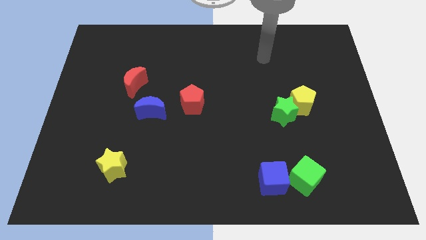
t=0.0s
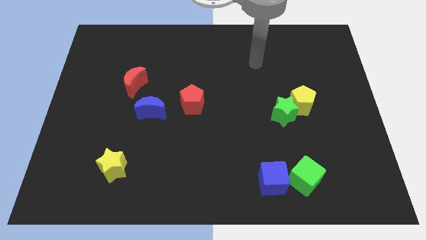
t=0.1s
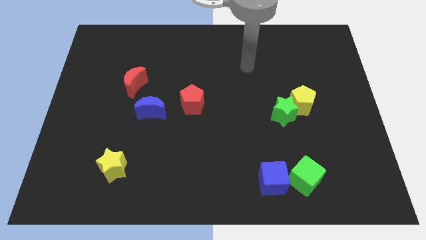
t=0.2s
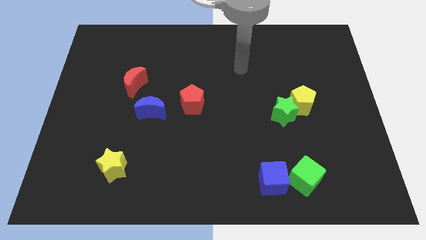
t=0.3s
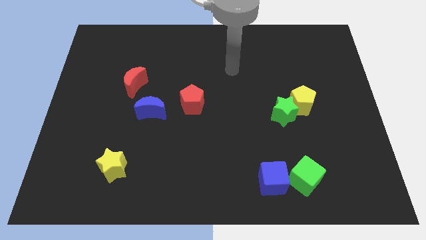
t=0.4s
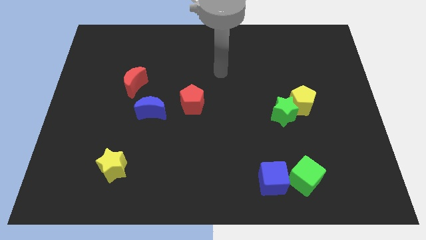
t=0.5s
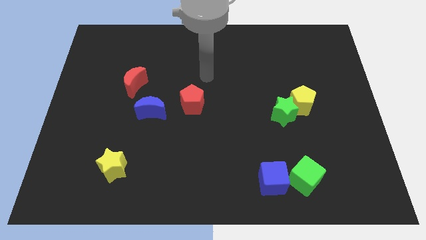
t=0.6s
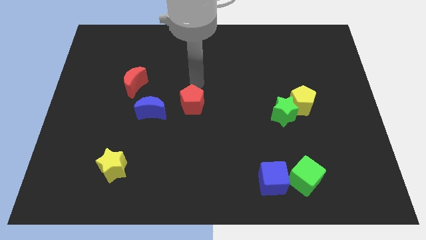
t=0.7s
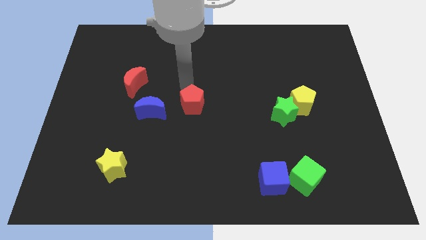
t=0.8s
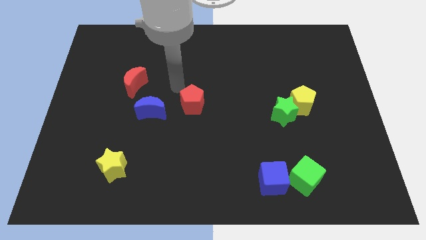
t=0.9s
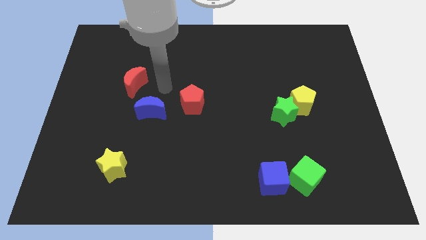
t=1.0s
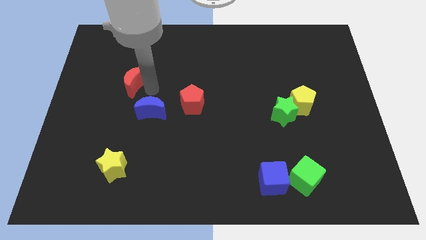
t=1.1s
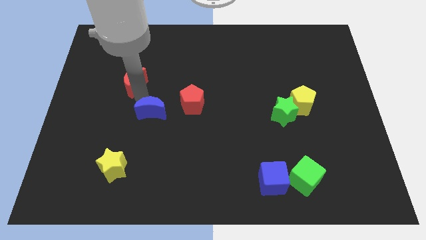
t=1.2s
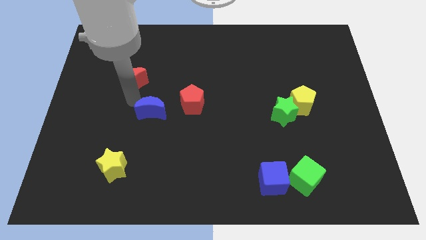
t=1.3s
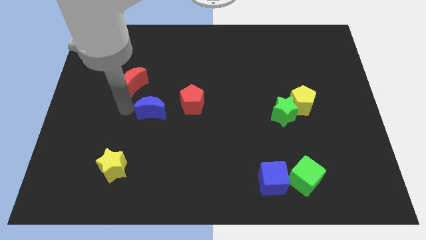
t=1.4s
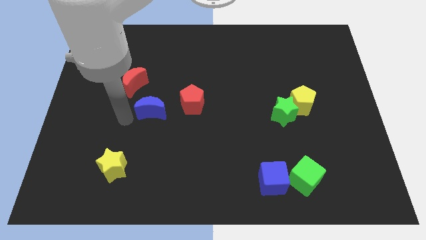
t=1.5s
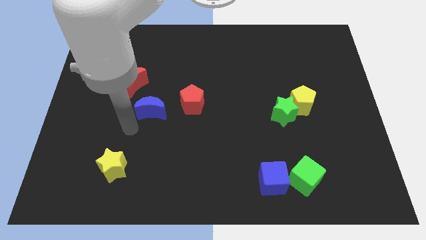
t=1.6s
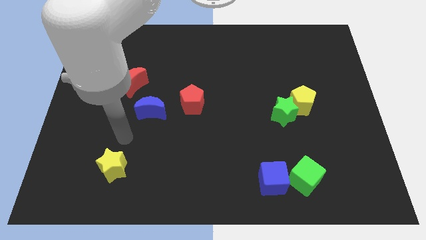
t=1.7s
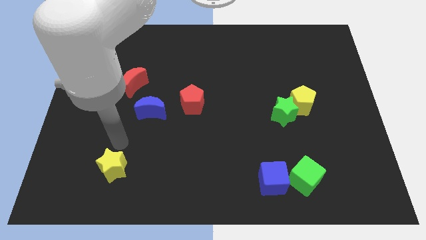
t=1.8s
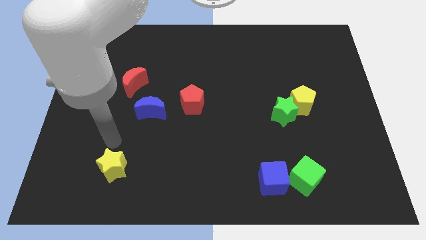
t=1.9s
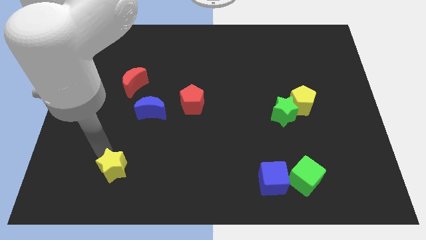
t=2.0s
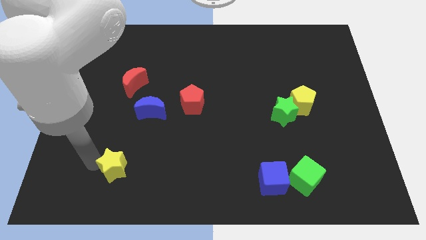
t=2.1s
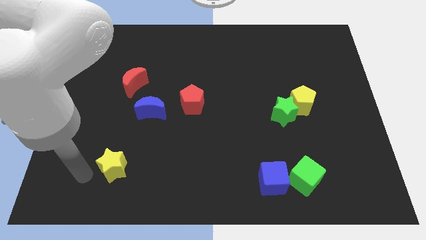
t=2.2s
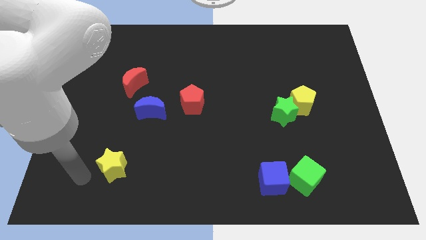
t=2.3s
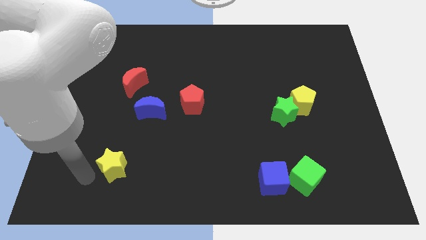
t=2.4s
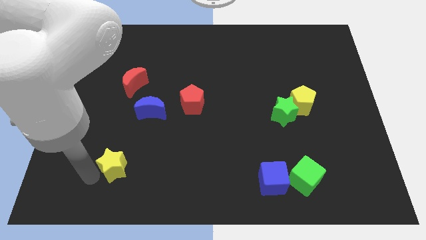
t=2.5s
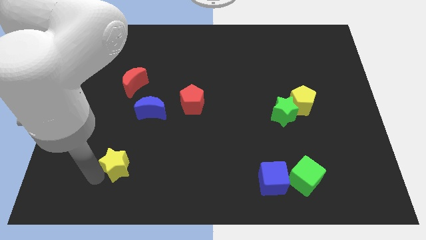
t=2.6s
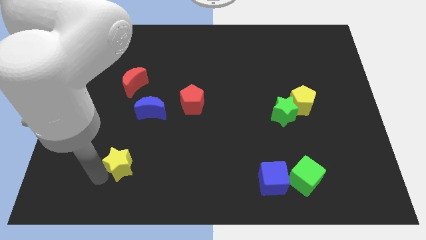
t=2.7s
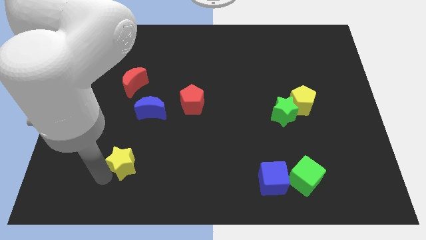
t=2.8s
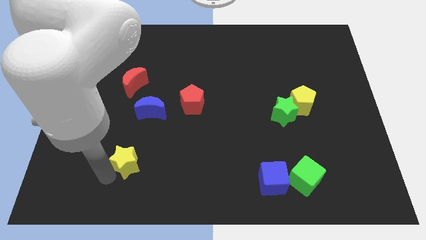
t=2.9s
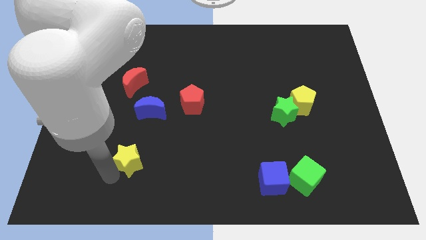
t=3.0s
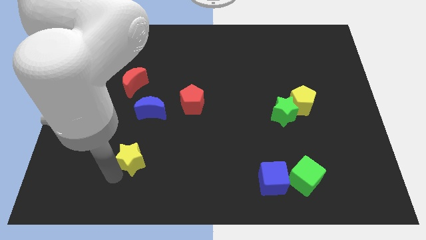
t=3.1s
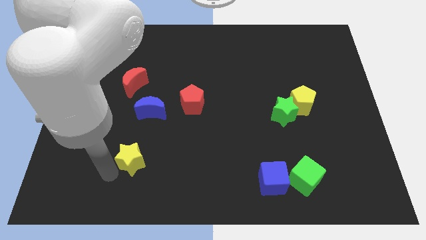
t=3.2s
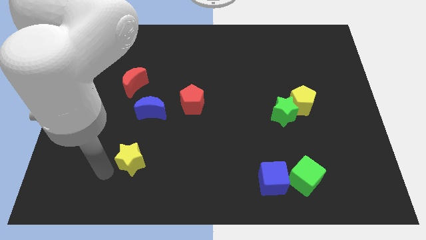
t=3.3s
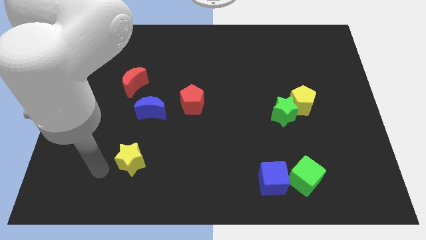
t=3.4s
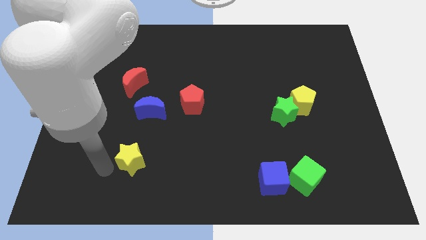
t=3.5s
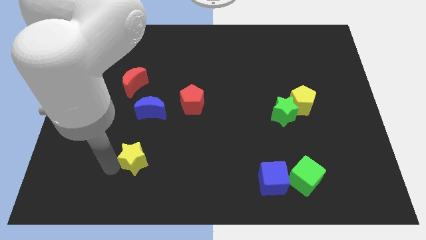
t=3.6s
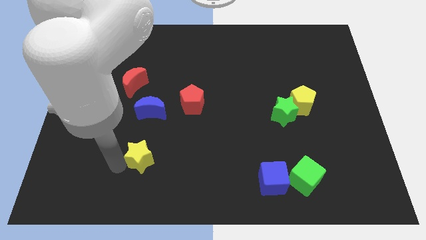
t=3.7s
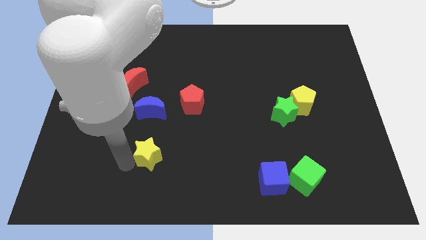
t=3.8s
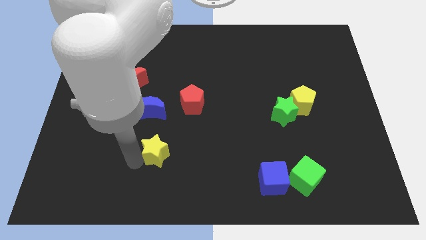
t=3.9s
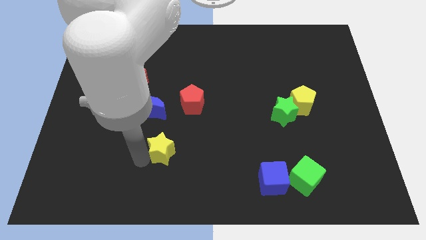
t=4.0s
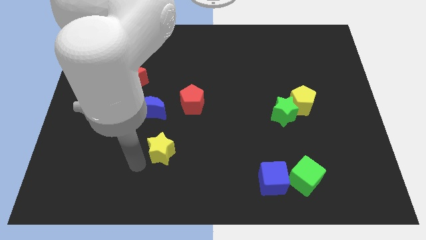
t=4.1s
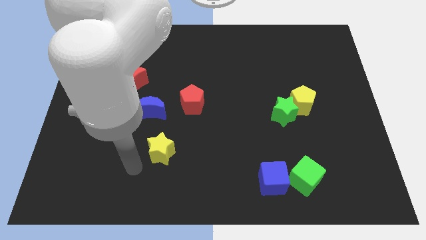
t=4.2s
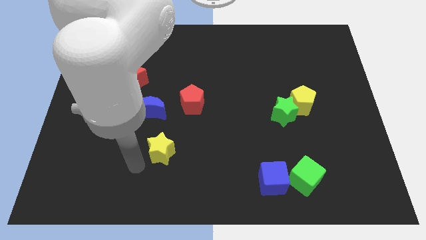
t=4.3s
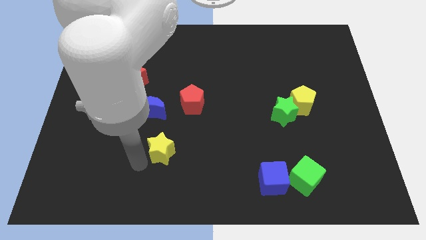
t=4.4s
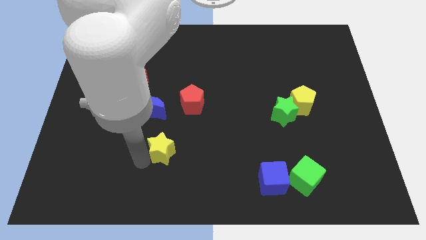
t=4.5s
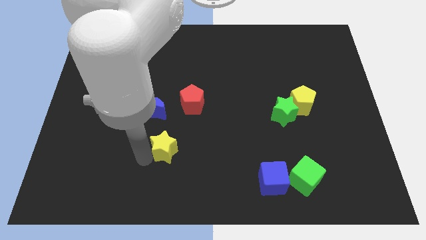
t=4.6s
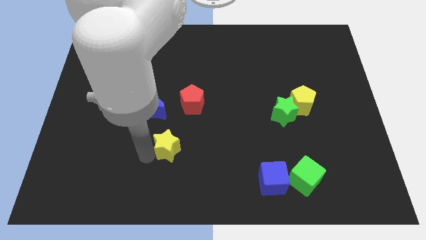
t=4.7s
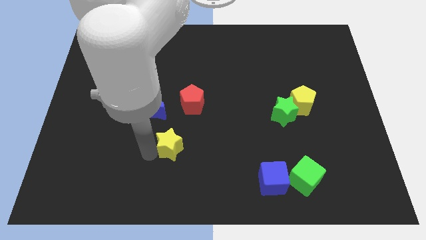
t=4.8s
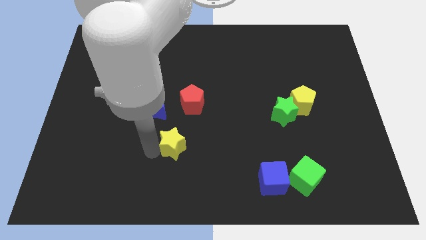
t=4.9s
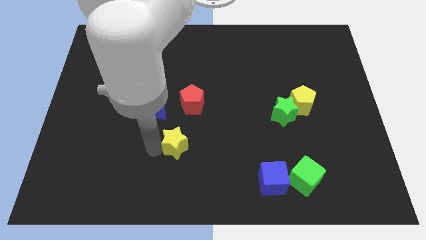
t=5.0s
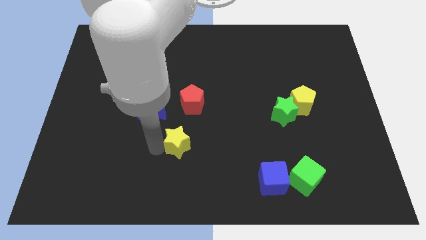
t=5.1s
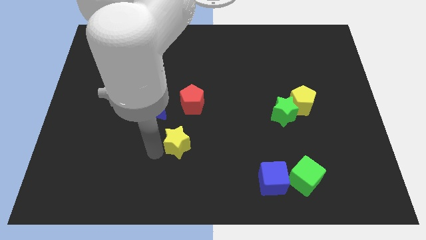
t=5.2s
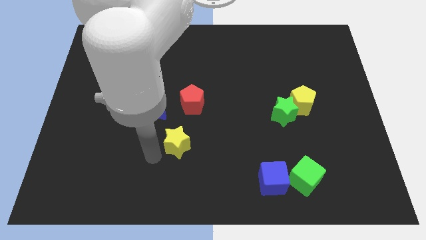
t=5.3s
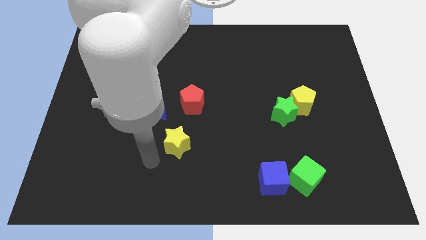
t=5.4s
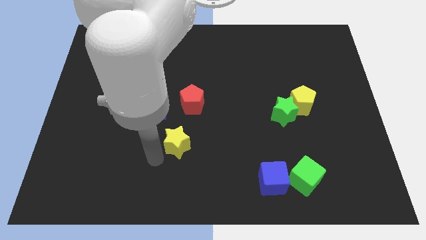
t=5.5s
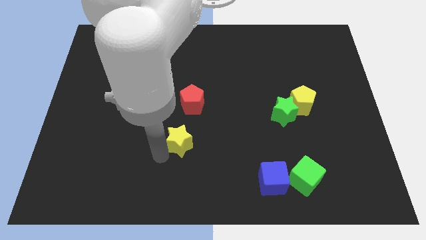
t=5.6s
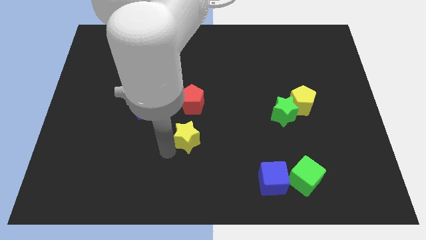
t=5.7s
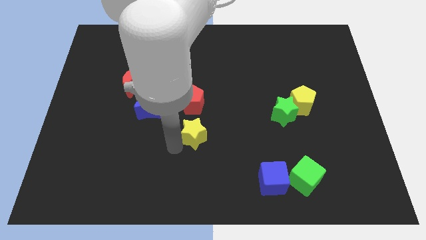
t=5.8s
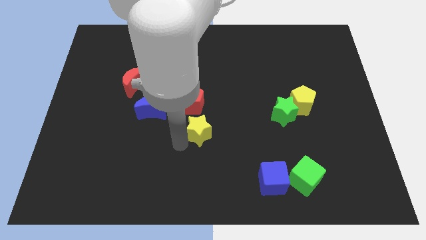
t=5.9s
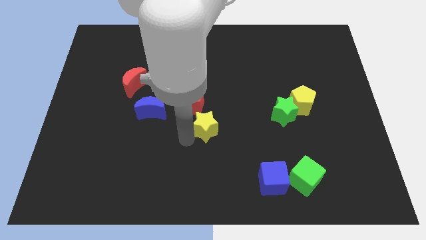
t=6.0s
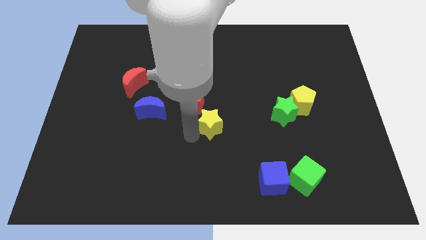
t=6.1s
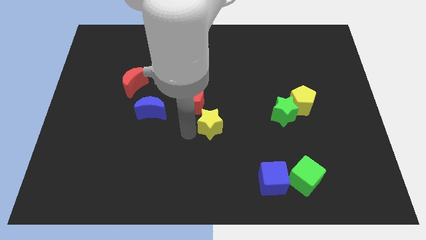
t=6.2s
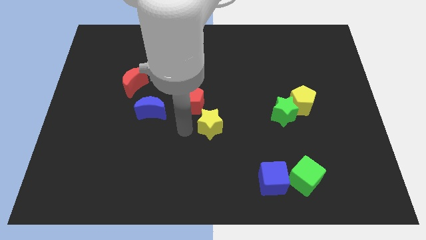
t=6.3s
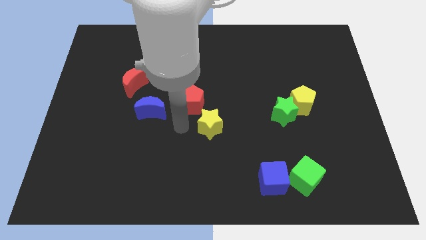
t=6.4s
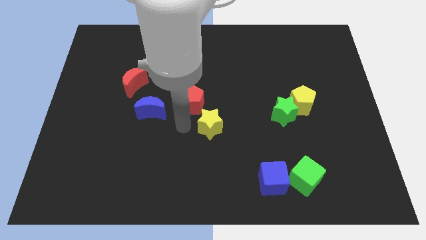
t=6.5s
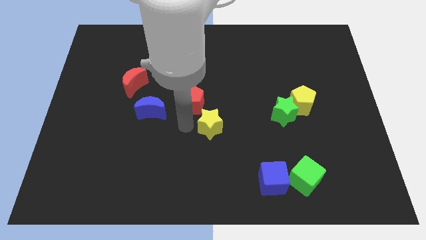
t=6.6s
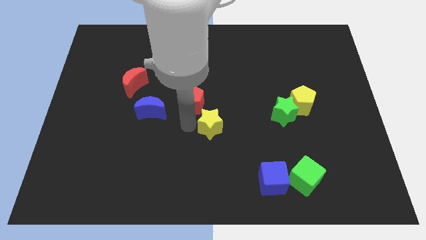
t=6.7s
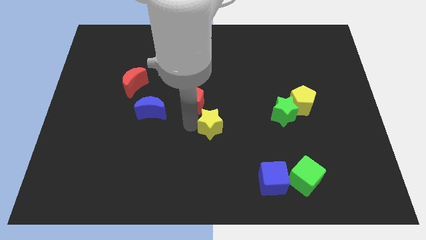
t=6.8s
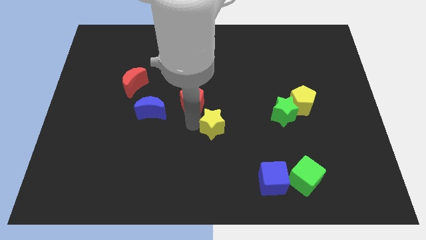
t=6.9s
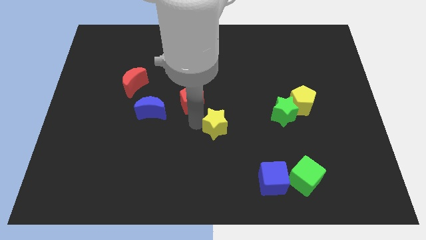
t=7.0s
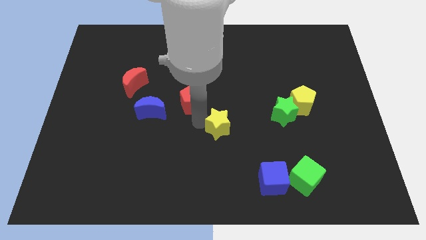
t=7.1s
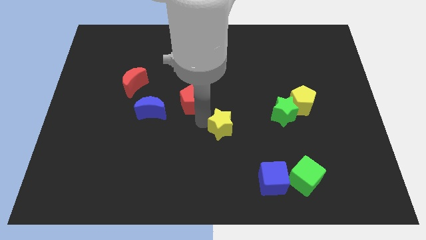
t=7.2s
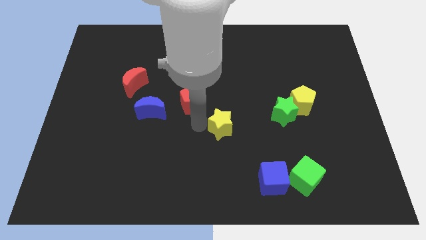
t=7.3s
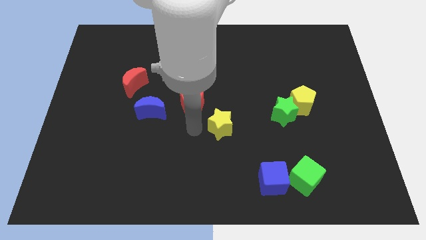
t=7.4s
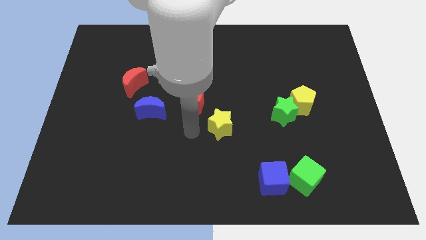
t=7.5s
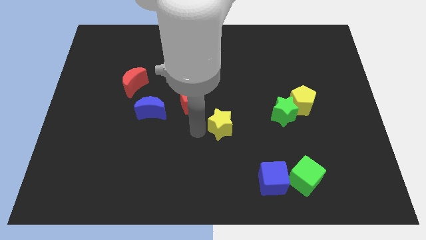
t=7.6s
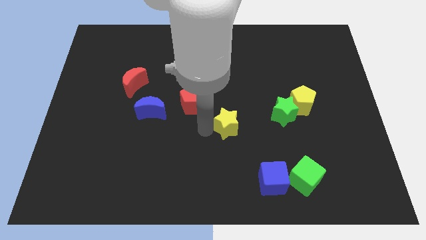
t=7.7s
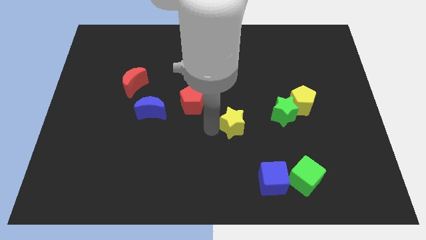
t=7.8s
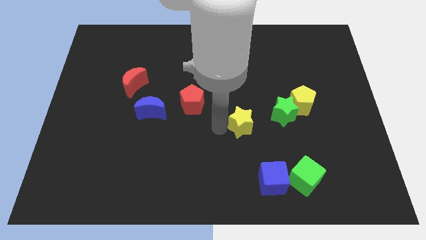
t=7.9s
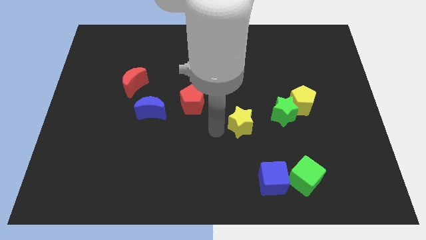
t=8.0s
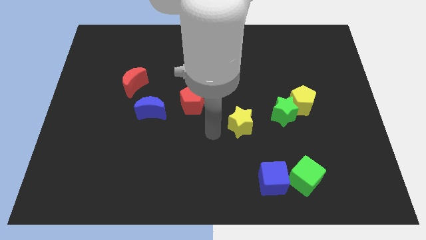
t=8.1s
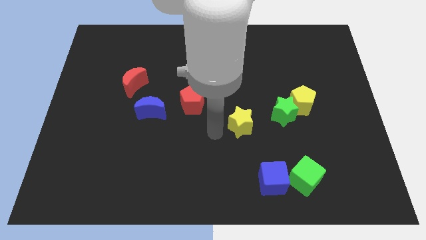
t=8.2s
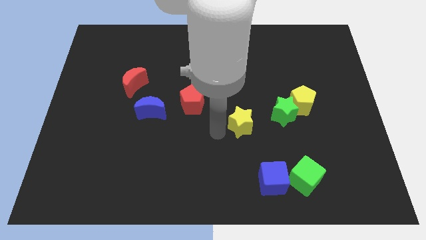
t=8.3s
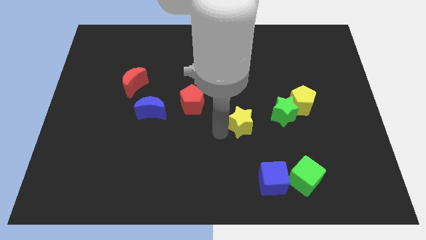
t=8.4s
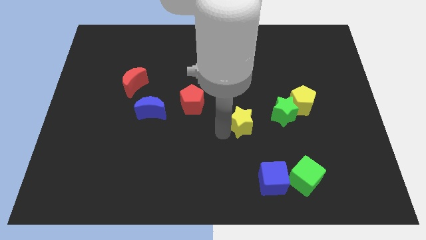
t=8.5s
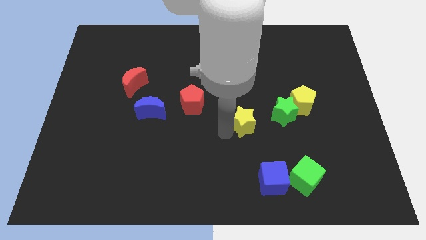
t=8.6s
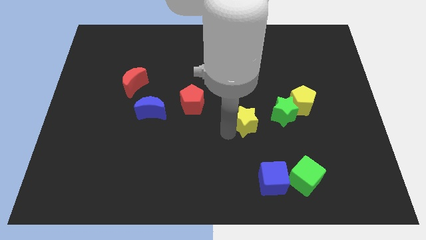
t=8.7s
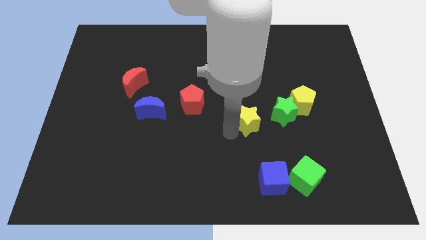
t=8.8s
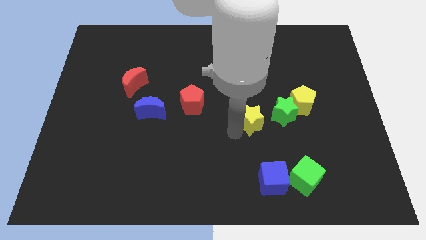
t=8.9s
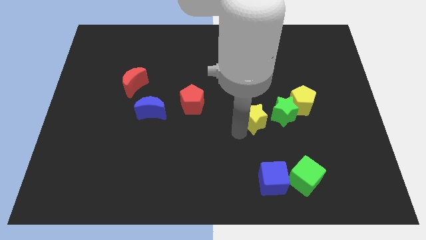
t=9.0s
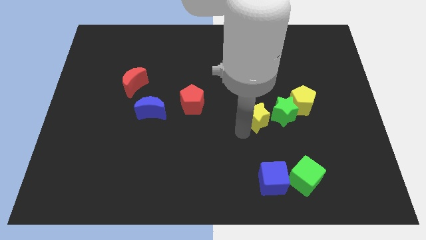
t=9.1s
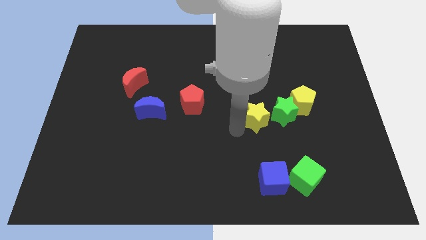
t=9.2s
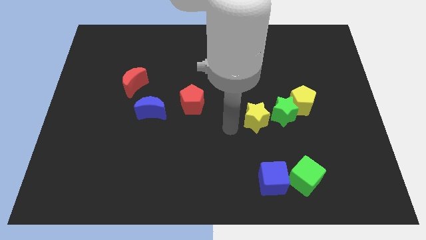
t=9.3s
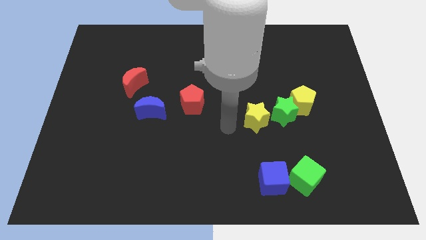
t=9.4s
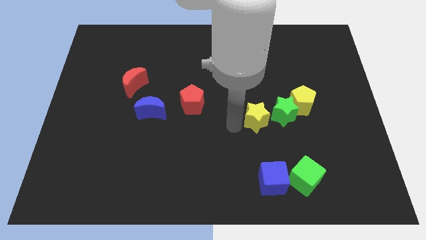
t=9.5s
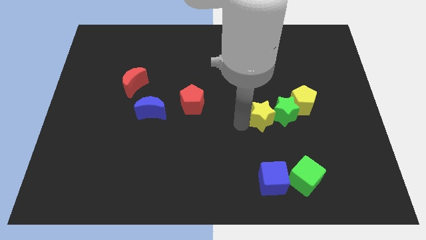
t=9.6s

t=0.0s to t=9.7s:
put the yellow star close to the green star
